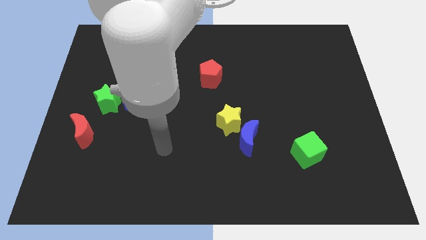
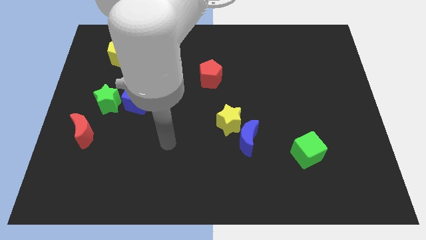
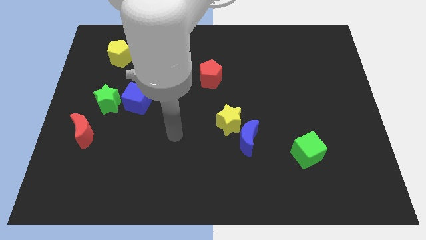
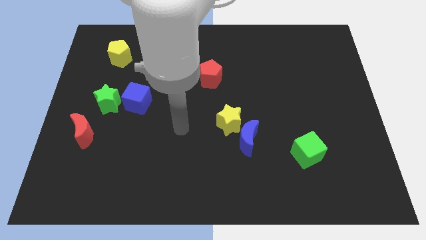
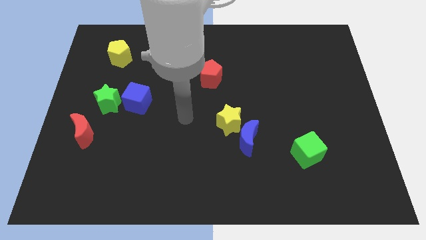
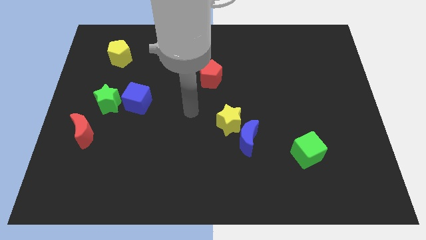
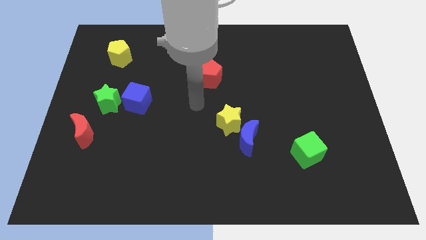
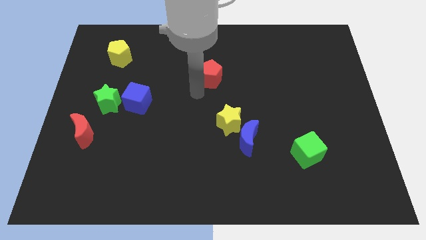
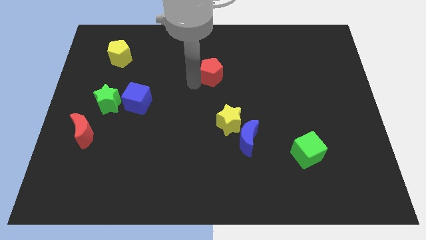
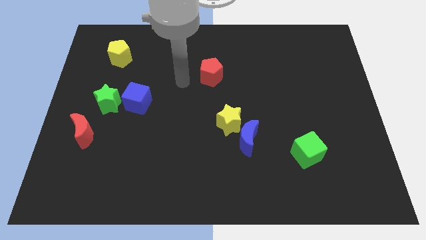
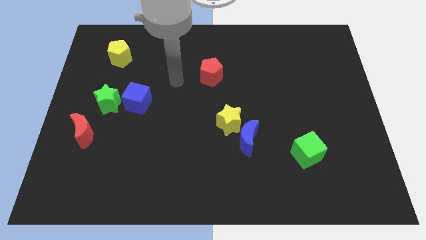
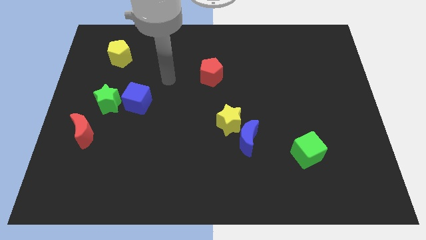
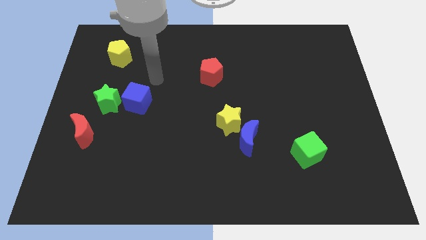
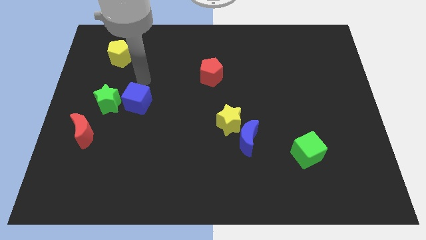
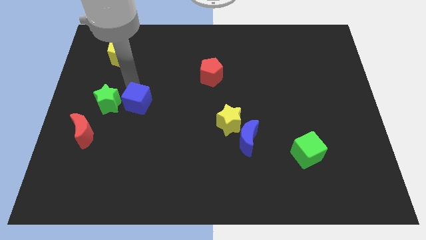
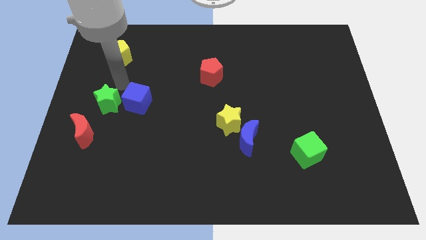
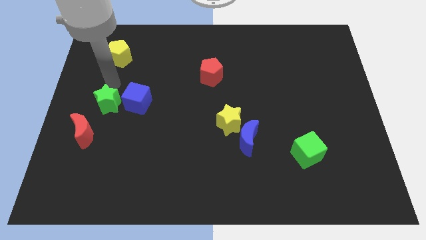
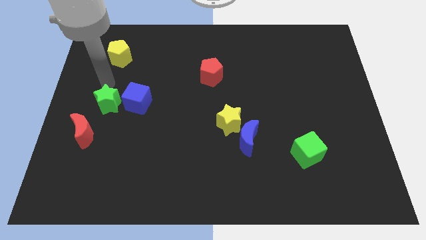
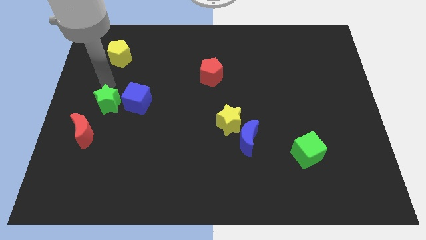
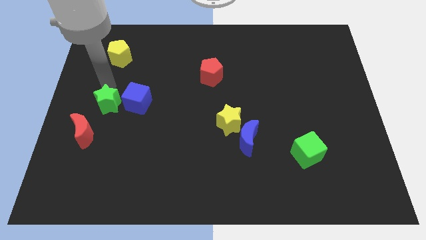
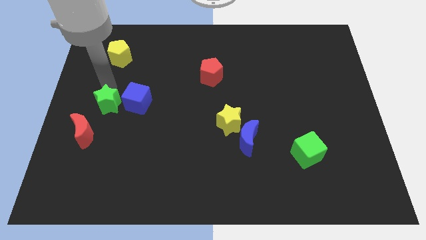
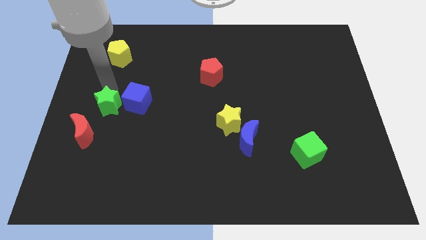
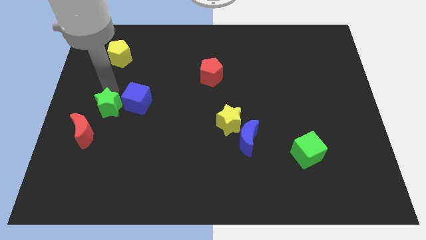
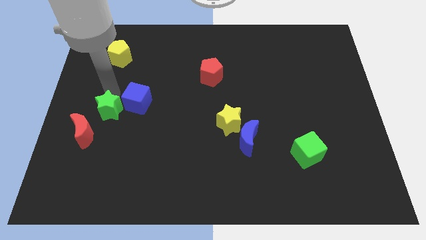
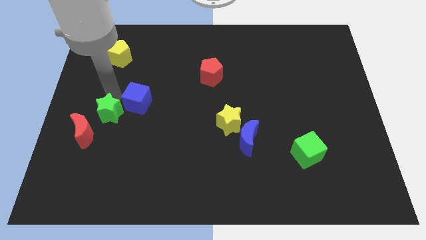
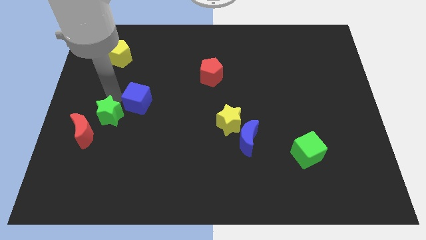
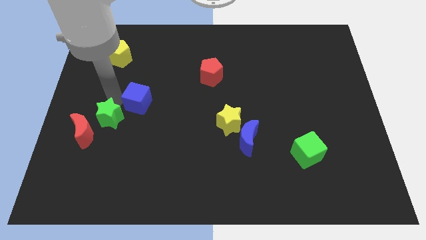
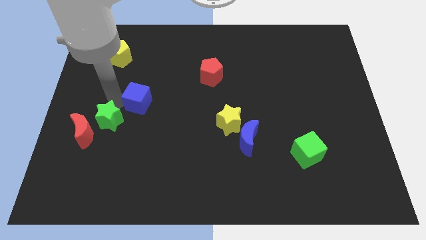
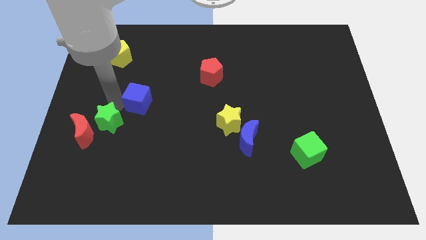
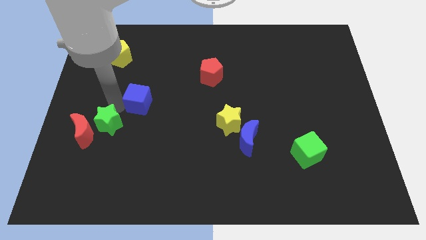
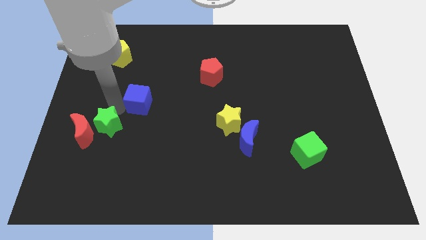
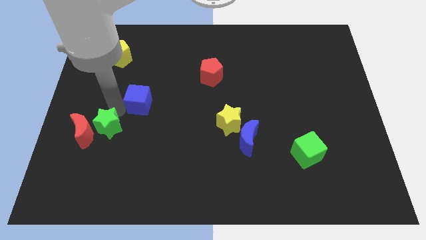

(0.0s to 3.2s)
push the green star down slightly

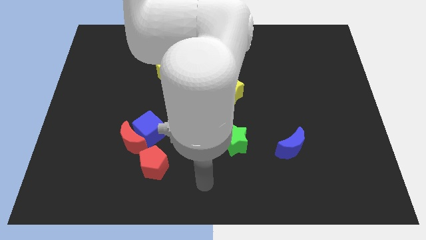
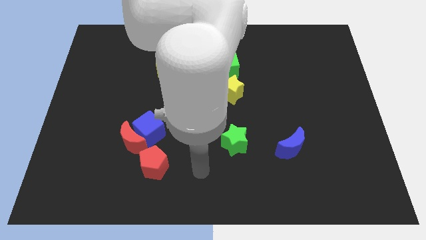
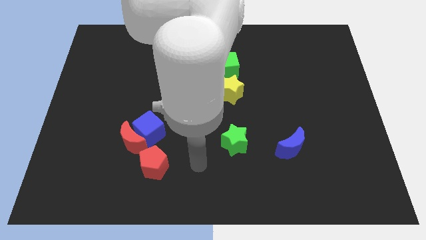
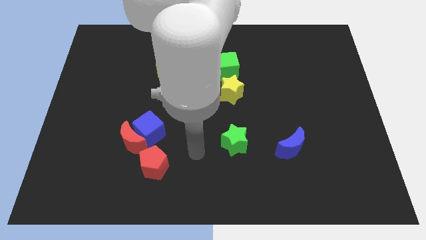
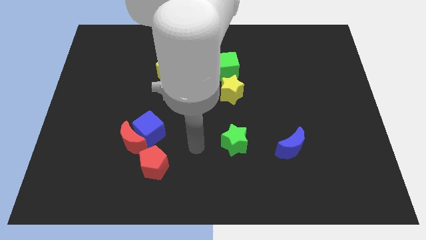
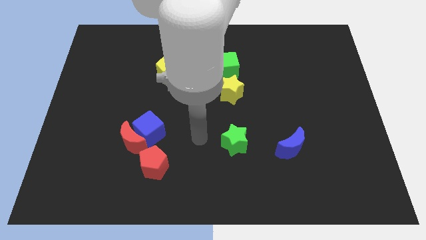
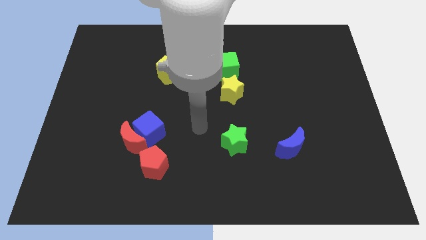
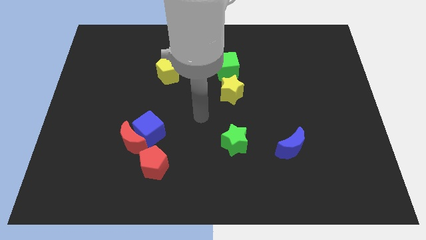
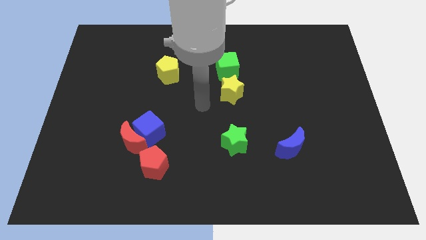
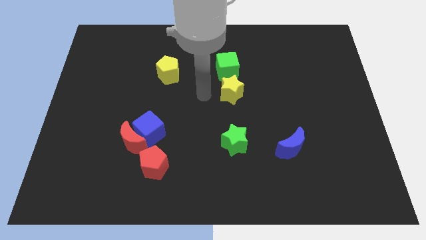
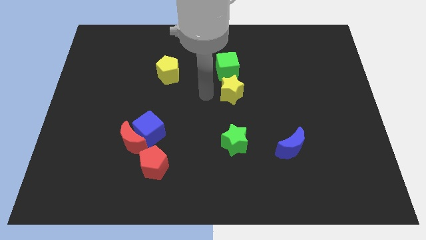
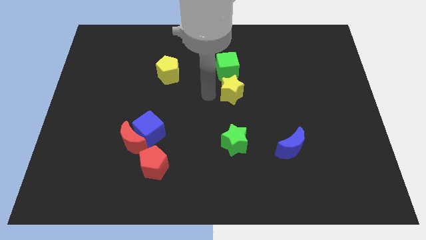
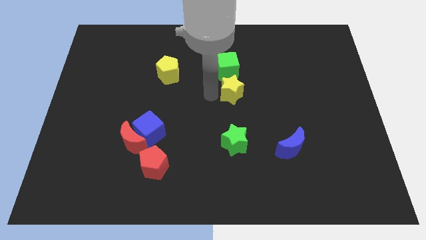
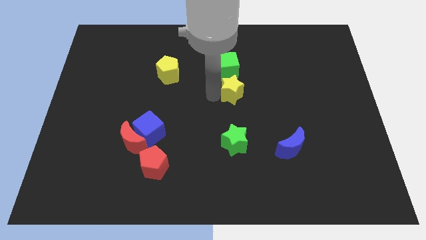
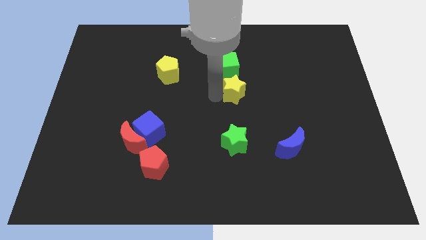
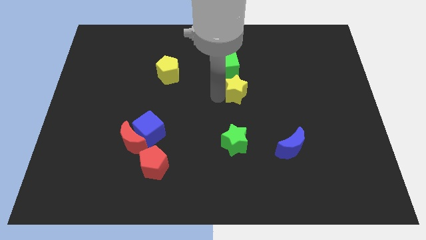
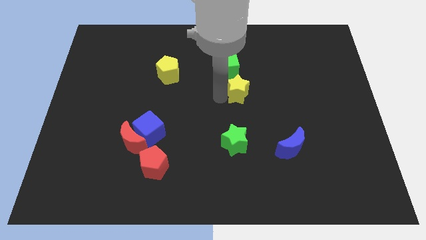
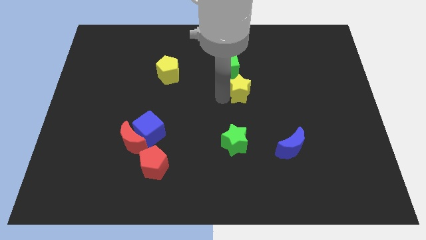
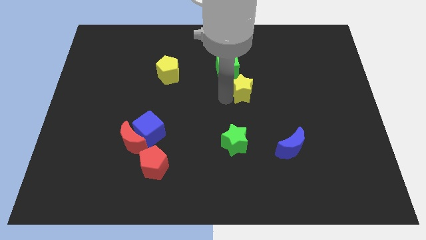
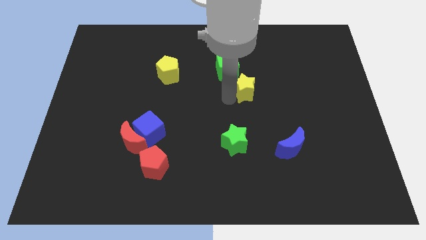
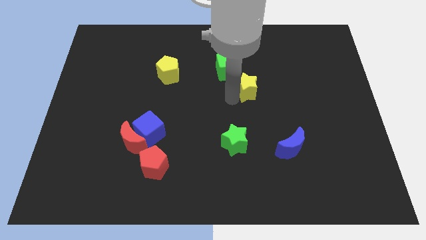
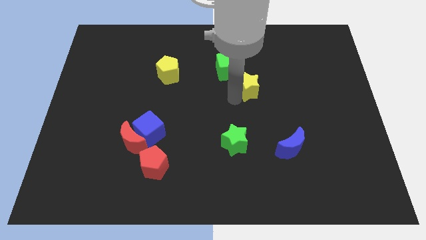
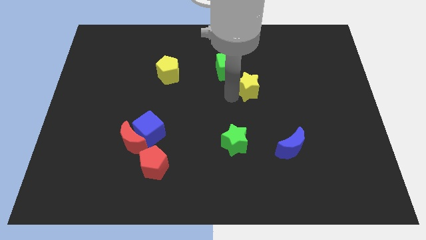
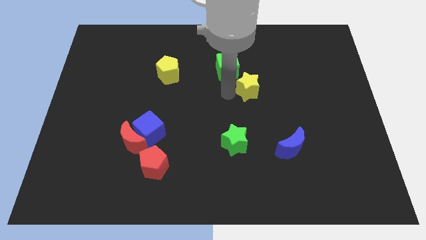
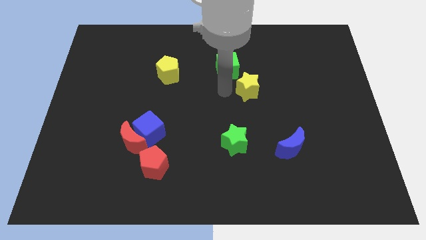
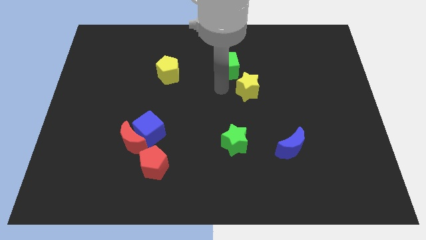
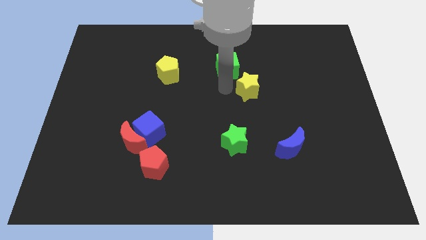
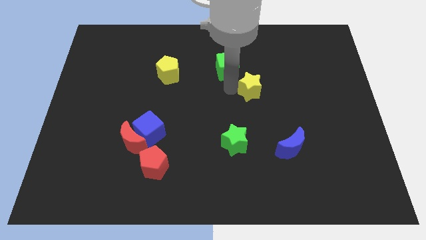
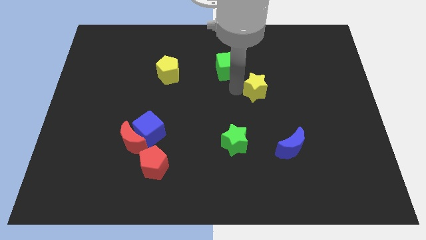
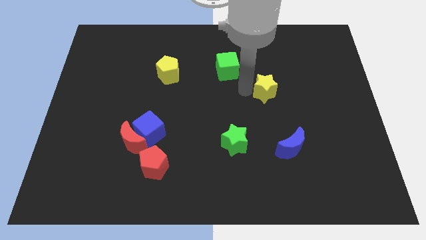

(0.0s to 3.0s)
push the yellow star to the right slightly

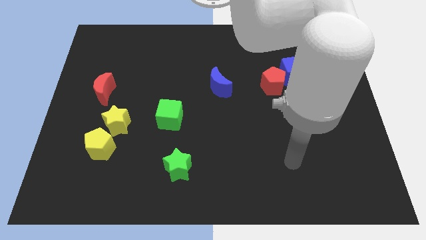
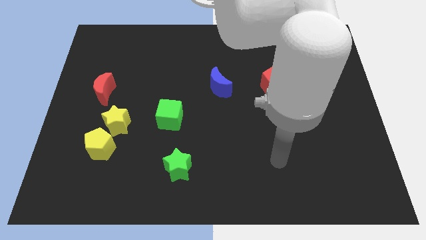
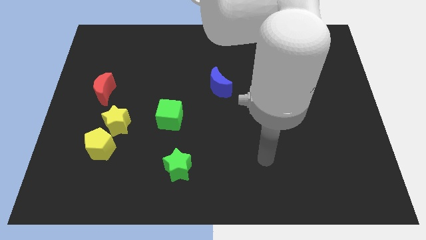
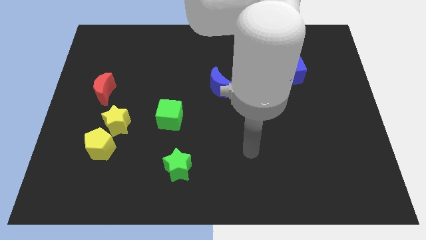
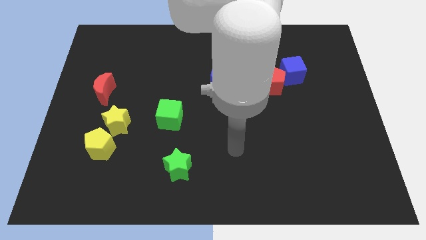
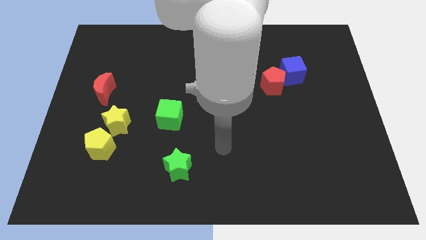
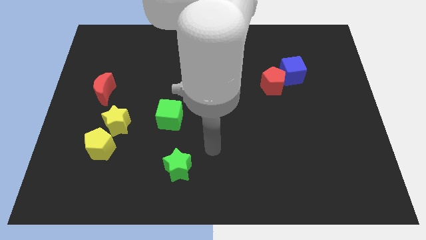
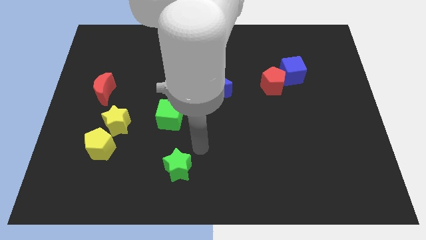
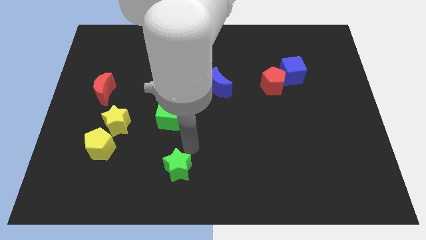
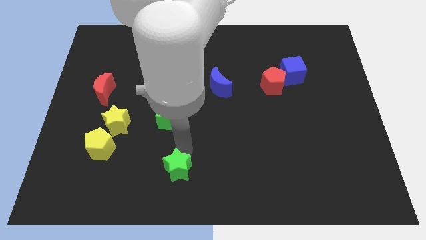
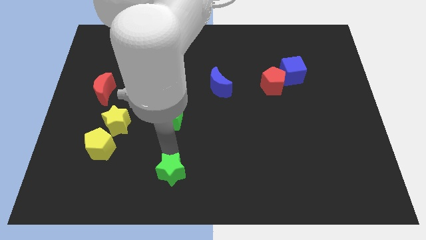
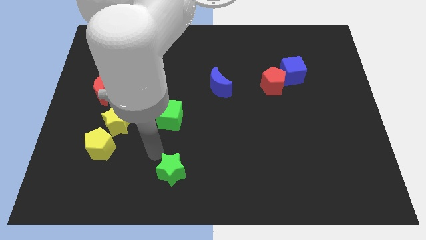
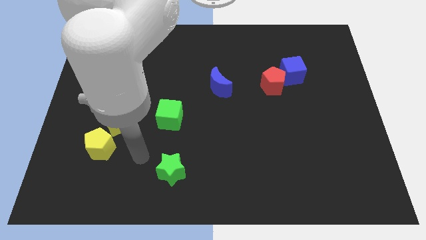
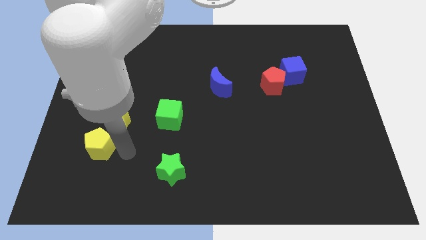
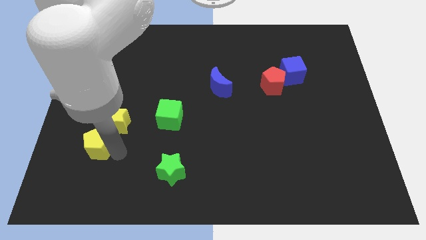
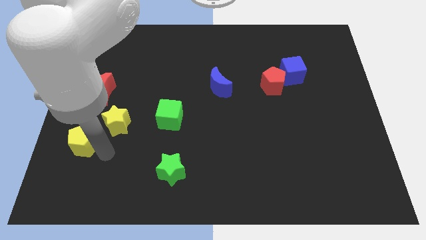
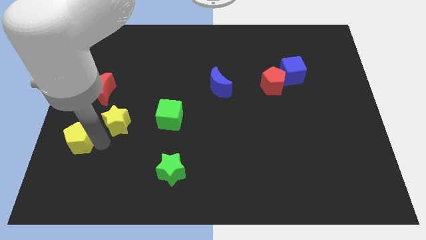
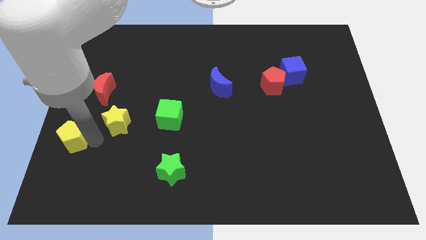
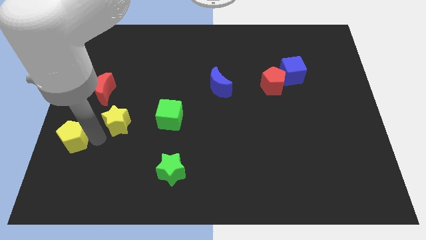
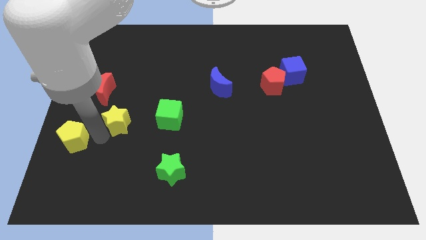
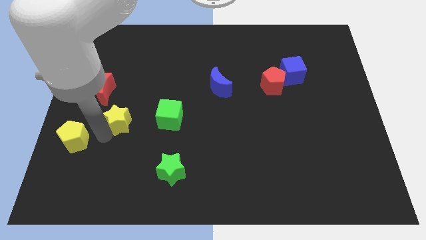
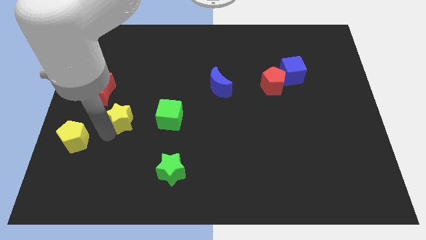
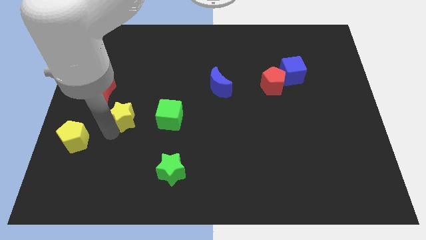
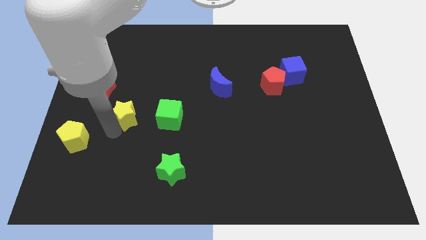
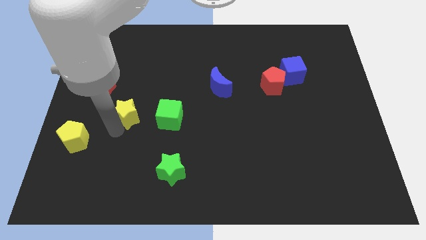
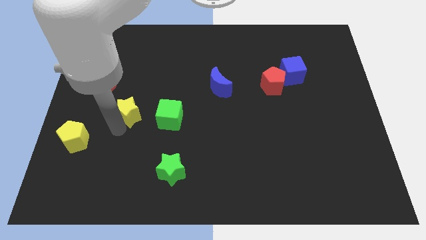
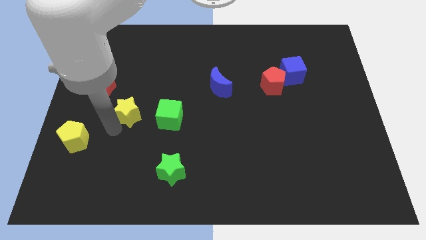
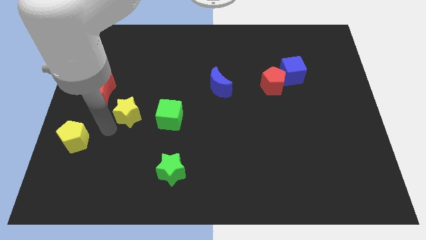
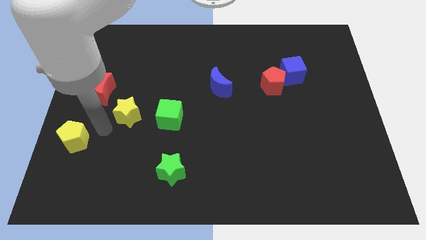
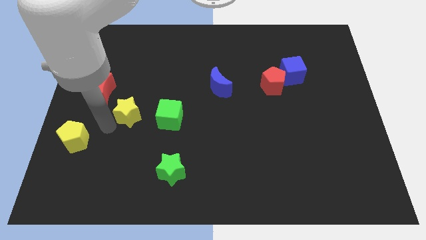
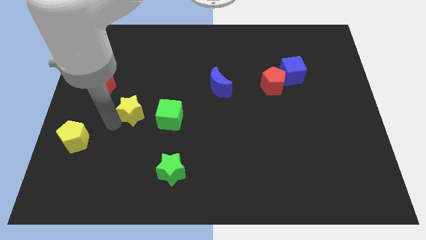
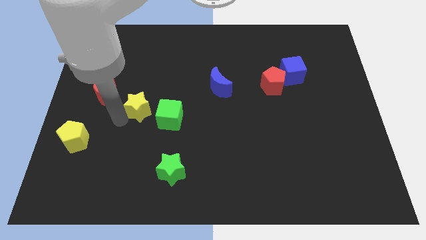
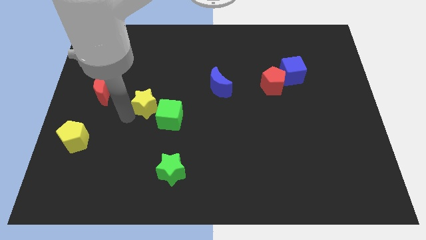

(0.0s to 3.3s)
move the yellow star diagonally up and to the right somewhat
